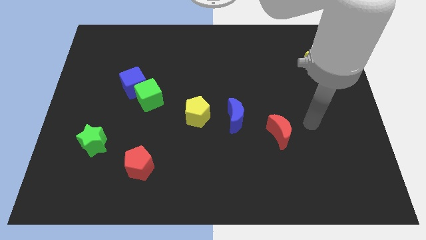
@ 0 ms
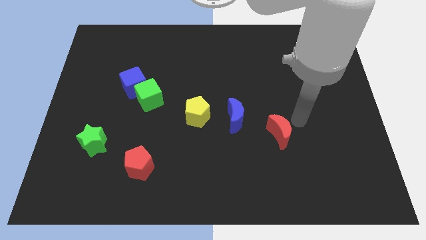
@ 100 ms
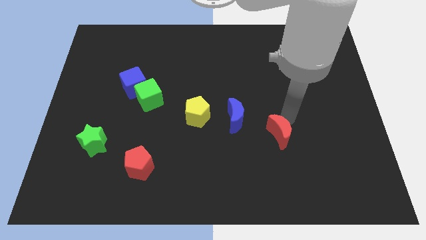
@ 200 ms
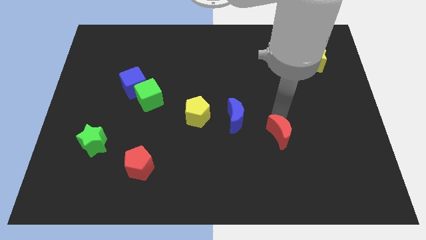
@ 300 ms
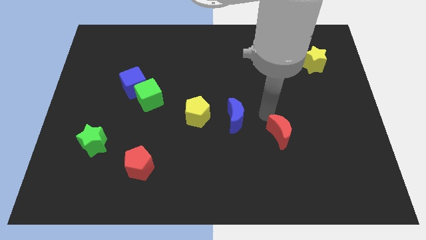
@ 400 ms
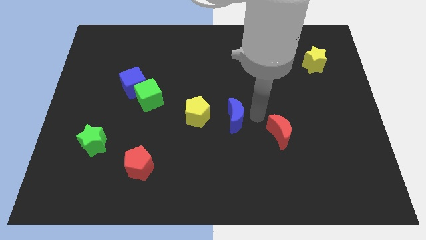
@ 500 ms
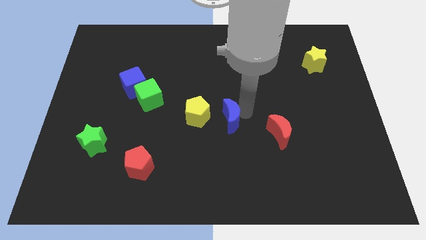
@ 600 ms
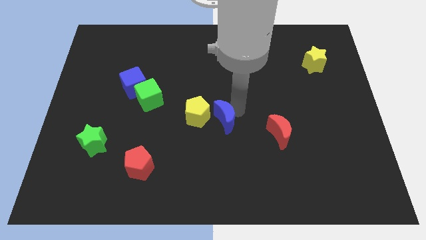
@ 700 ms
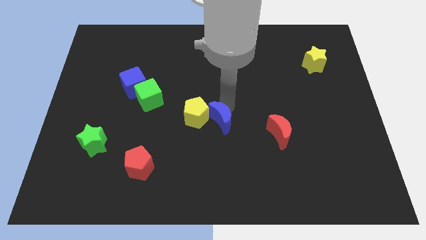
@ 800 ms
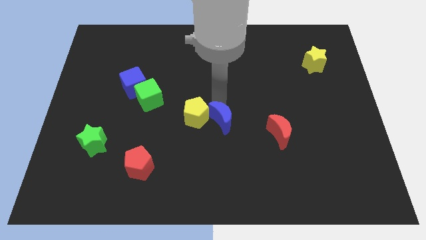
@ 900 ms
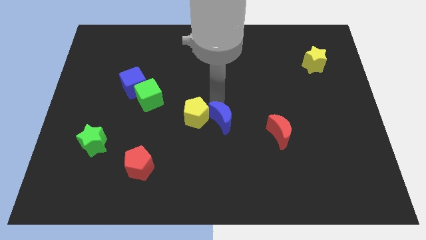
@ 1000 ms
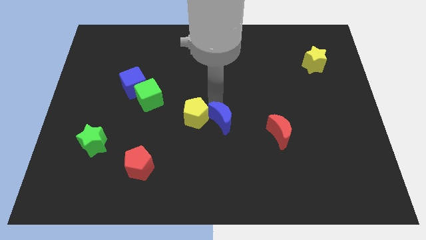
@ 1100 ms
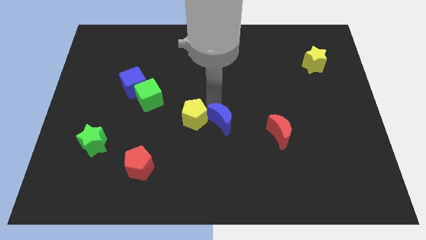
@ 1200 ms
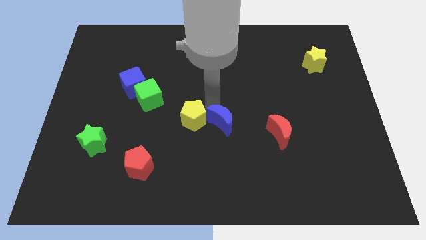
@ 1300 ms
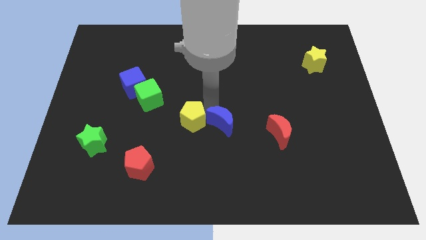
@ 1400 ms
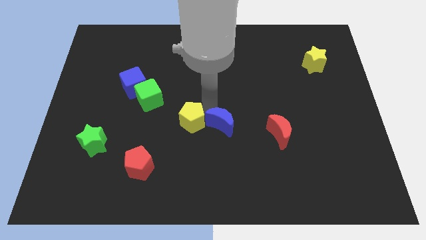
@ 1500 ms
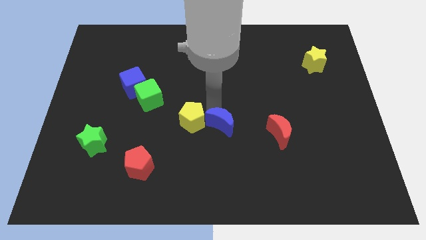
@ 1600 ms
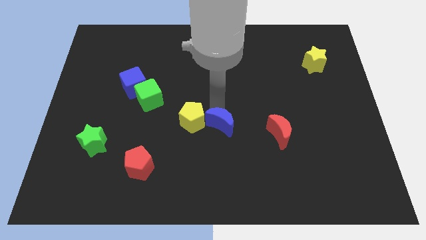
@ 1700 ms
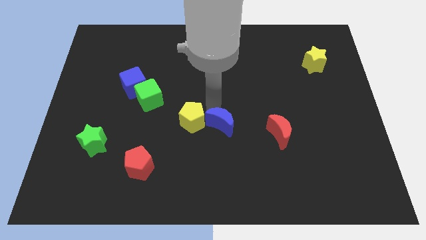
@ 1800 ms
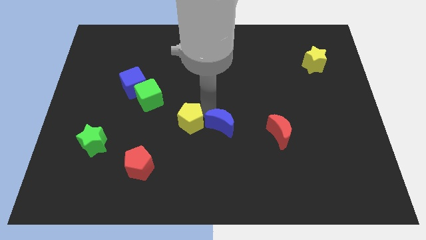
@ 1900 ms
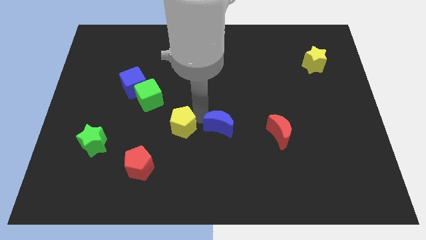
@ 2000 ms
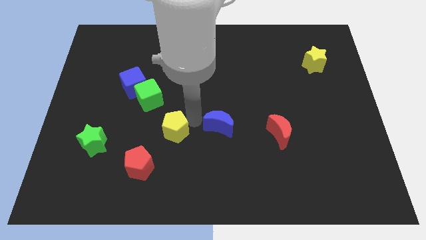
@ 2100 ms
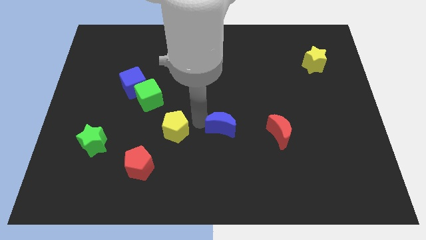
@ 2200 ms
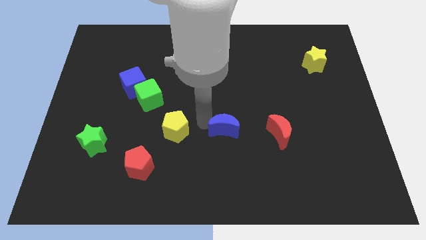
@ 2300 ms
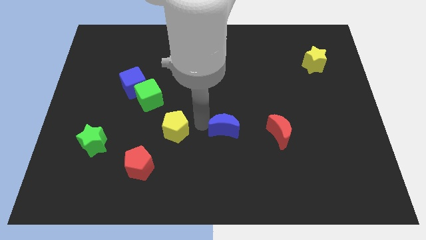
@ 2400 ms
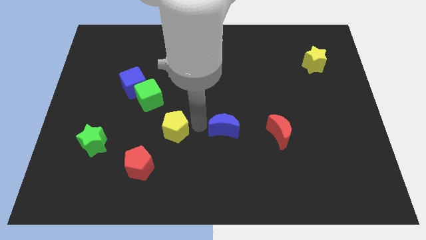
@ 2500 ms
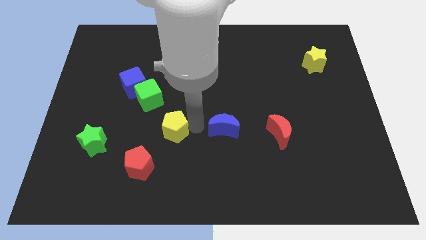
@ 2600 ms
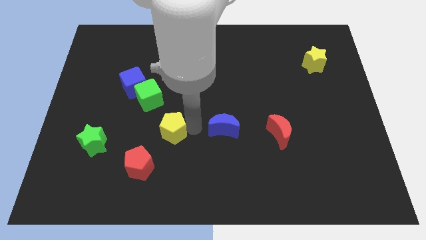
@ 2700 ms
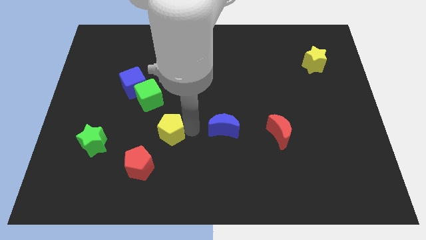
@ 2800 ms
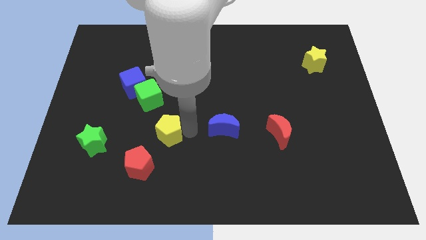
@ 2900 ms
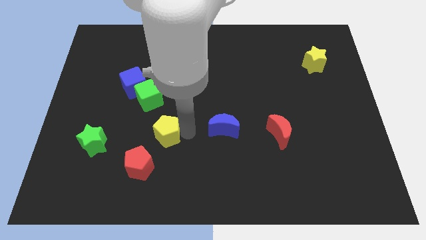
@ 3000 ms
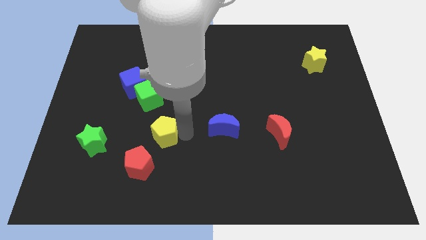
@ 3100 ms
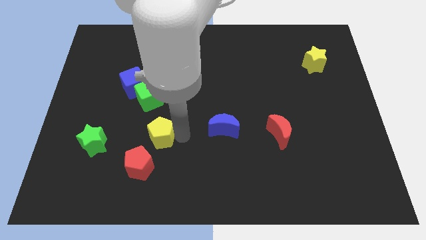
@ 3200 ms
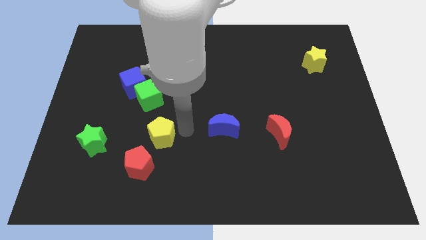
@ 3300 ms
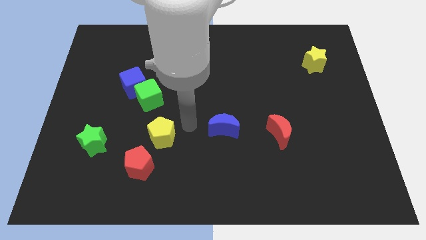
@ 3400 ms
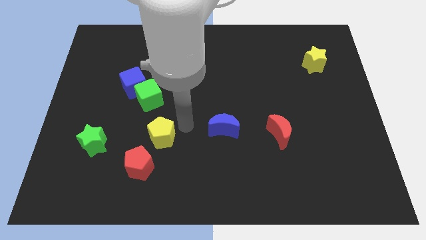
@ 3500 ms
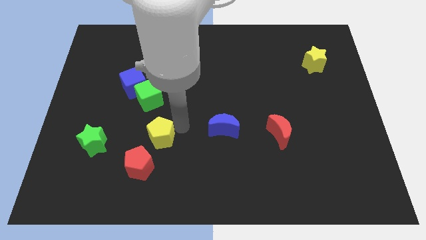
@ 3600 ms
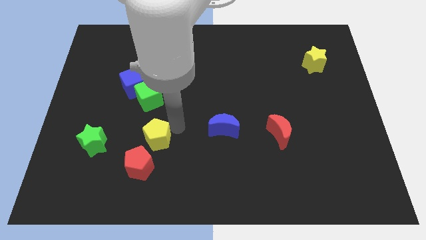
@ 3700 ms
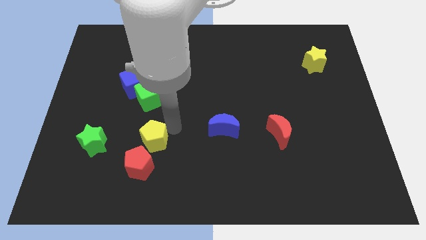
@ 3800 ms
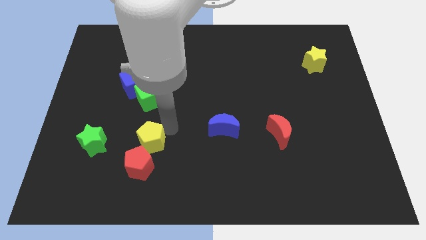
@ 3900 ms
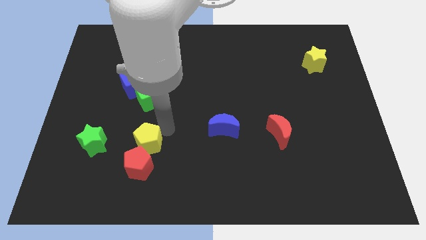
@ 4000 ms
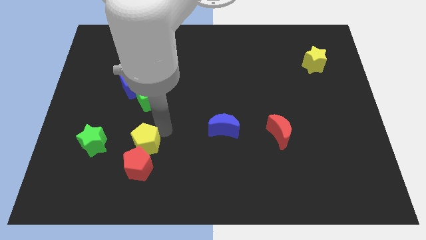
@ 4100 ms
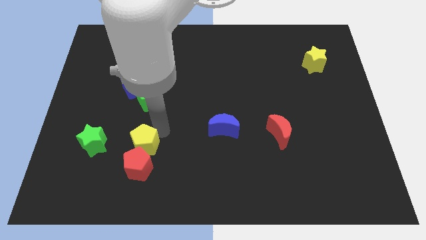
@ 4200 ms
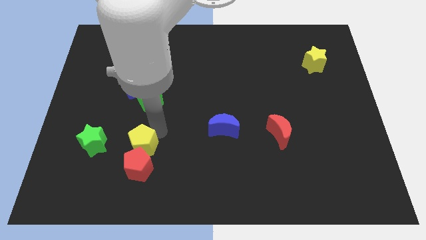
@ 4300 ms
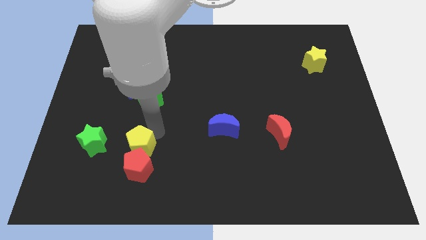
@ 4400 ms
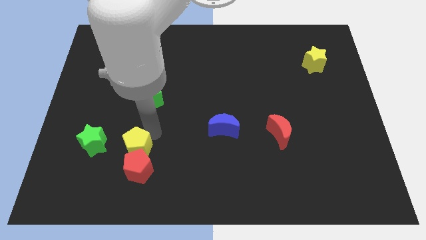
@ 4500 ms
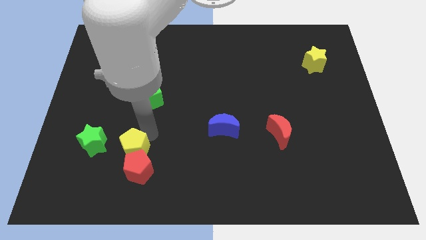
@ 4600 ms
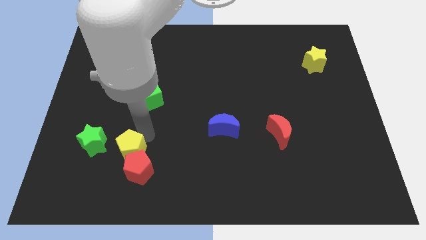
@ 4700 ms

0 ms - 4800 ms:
move the yellow pentagon to the bottom right side of the green star

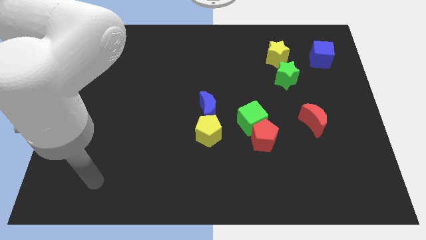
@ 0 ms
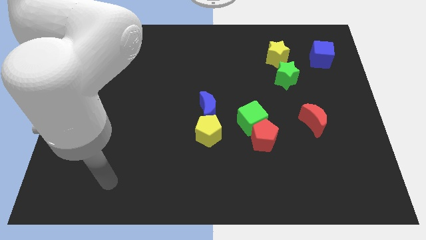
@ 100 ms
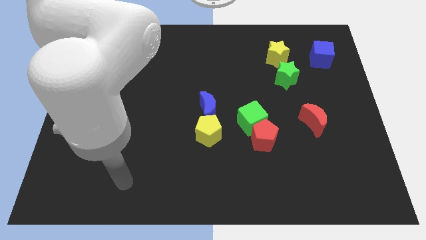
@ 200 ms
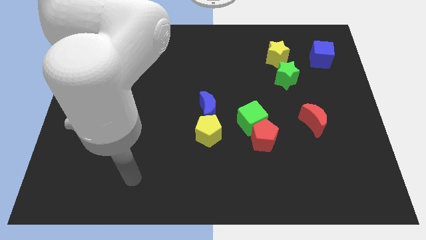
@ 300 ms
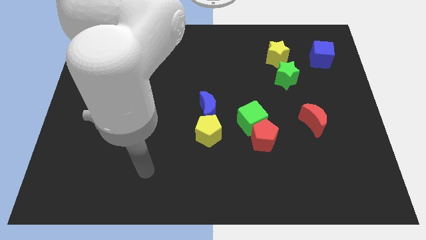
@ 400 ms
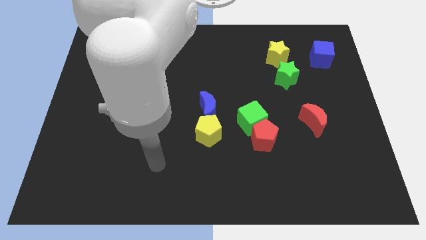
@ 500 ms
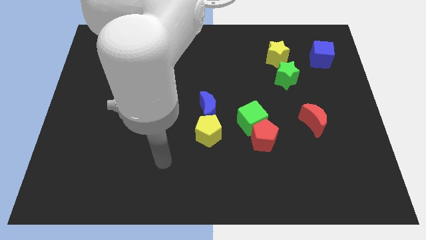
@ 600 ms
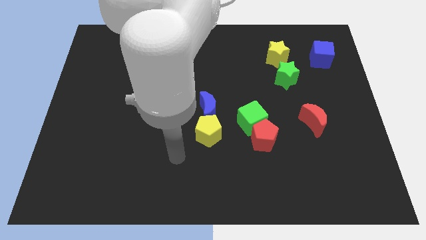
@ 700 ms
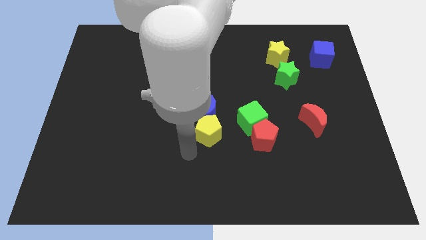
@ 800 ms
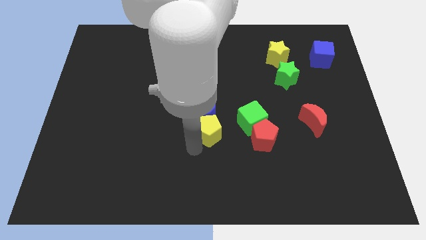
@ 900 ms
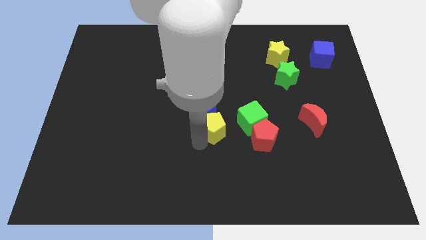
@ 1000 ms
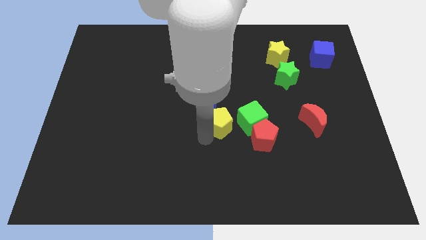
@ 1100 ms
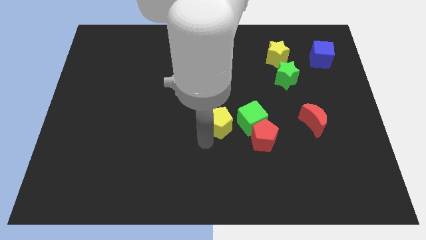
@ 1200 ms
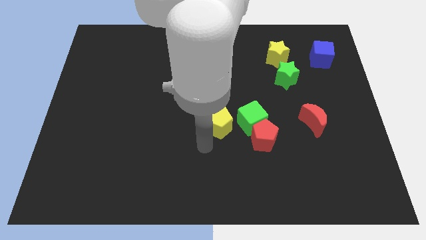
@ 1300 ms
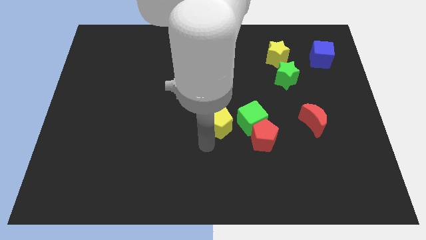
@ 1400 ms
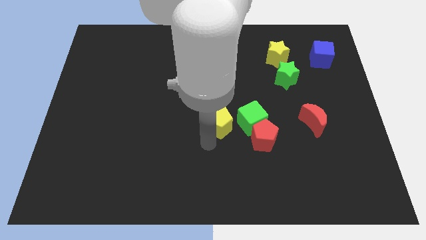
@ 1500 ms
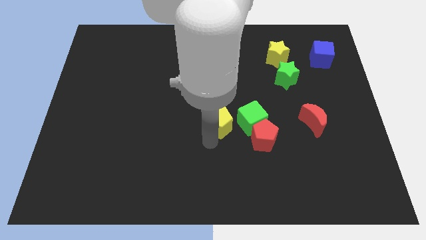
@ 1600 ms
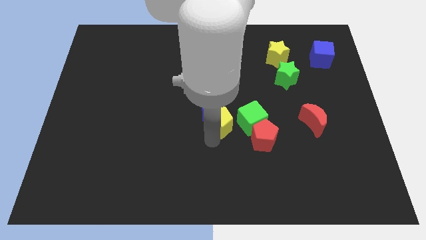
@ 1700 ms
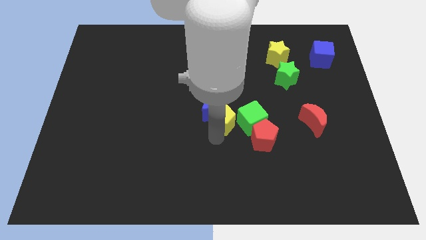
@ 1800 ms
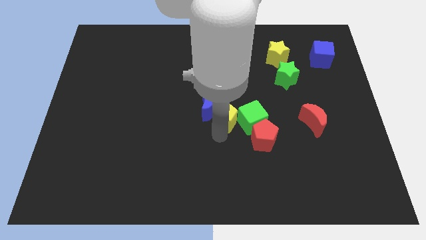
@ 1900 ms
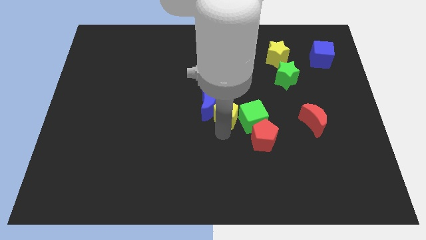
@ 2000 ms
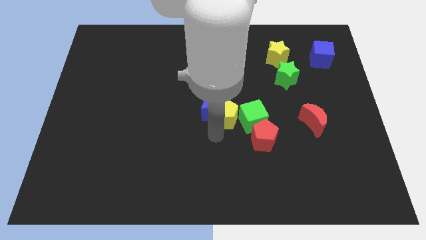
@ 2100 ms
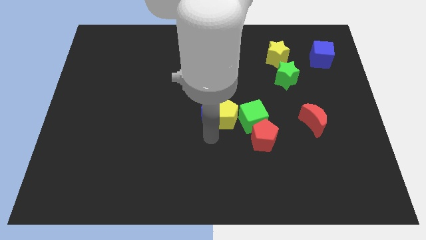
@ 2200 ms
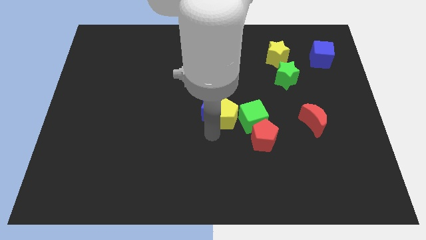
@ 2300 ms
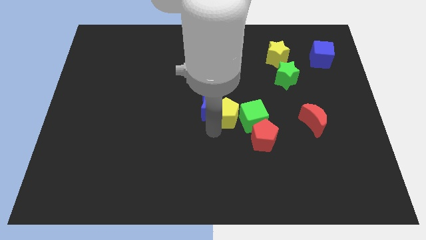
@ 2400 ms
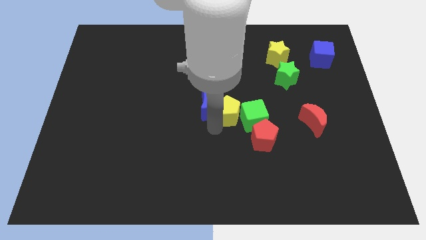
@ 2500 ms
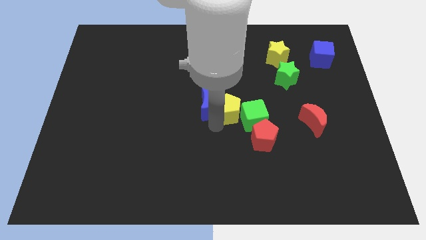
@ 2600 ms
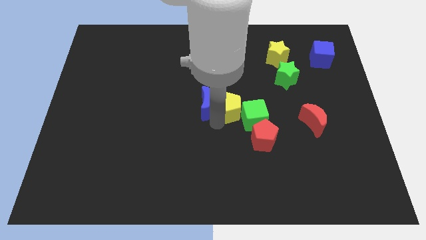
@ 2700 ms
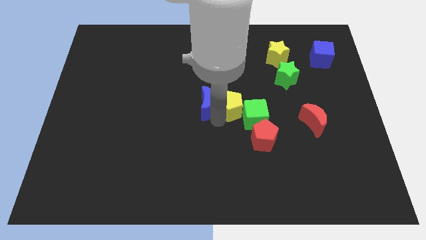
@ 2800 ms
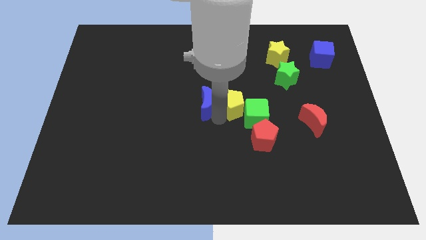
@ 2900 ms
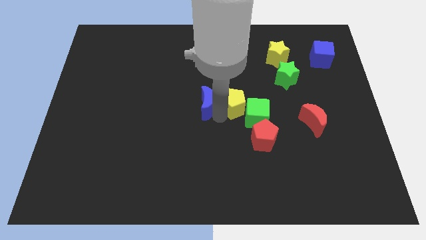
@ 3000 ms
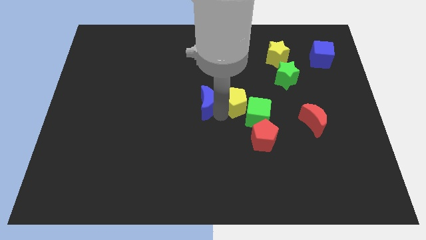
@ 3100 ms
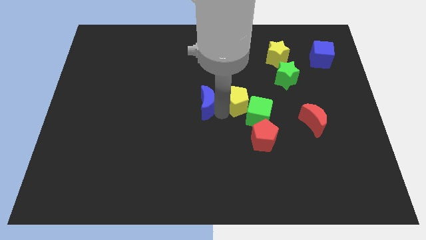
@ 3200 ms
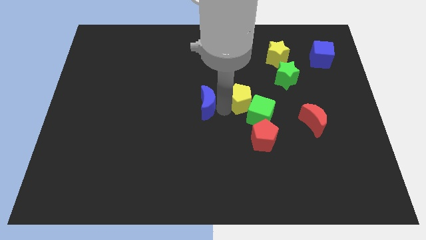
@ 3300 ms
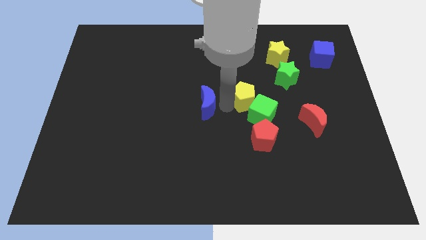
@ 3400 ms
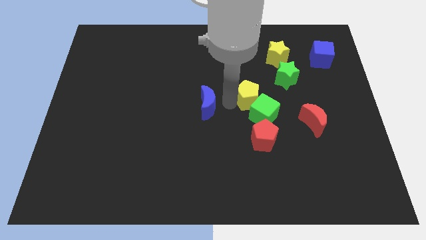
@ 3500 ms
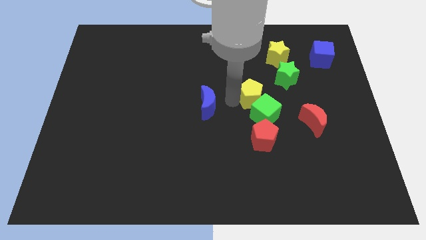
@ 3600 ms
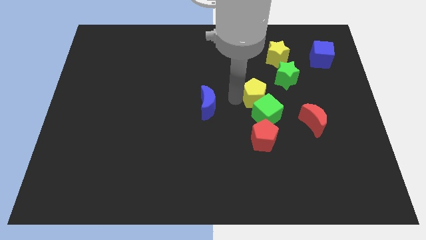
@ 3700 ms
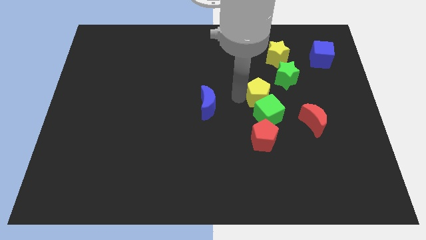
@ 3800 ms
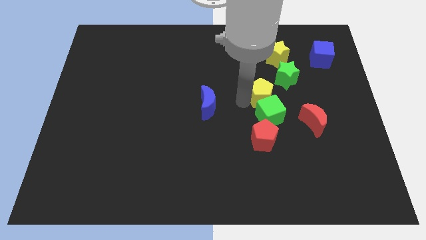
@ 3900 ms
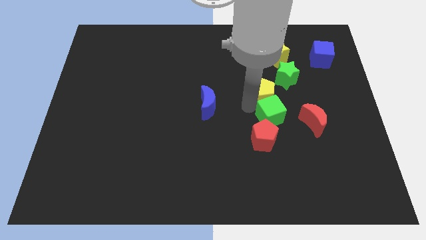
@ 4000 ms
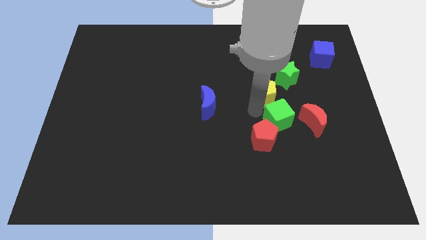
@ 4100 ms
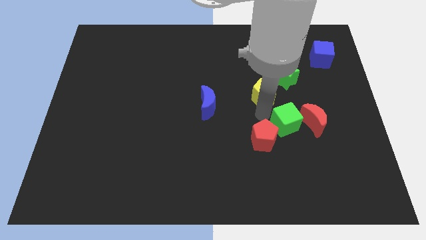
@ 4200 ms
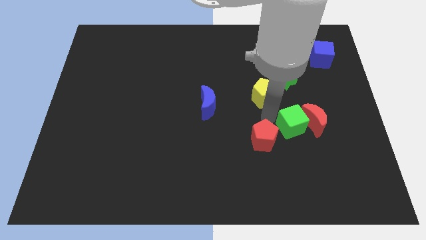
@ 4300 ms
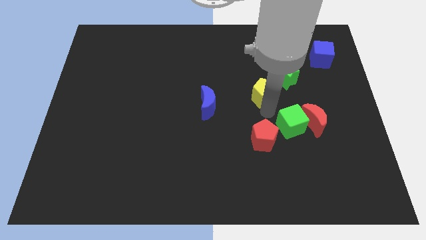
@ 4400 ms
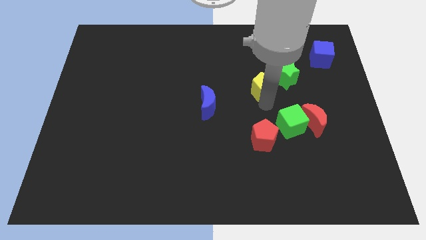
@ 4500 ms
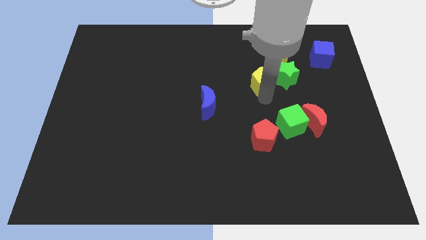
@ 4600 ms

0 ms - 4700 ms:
slide the yellow pentagon to the bottom left side of the yellow star
